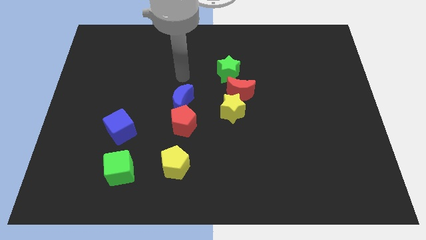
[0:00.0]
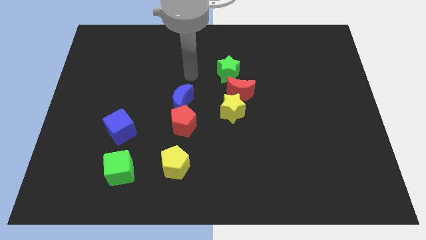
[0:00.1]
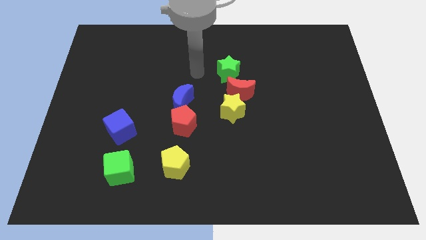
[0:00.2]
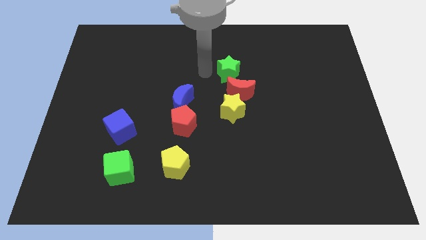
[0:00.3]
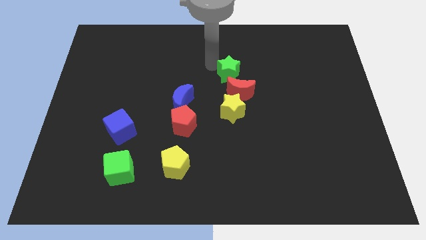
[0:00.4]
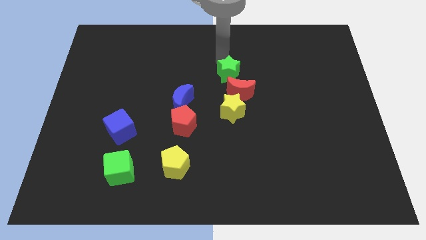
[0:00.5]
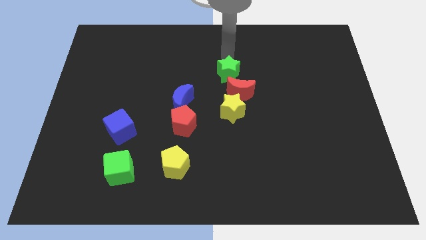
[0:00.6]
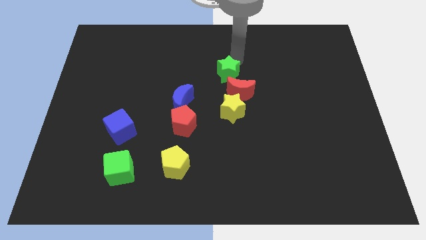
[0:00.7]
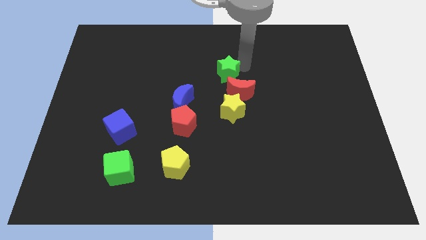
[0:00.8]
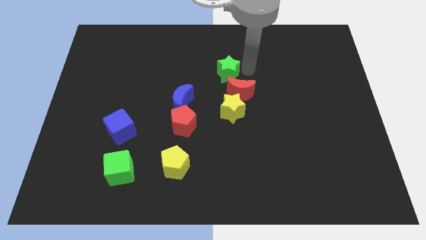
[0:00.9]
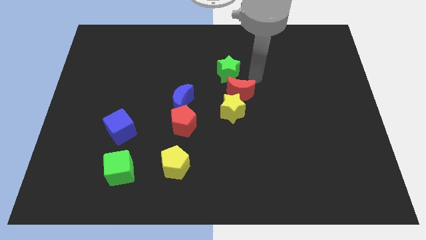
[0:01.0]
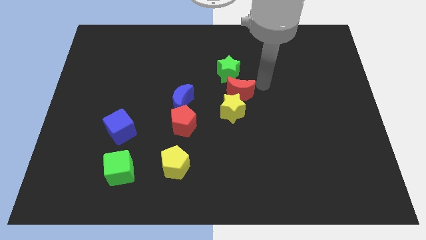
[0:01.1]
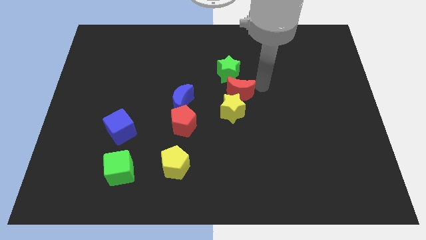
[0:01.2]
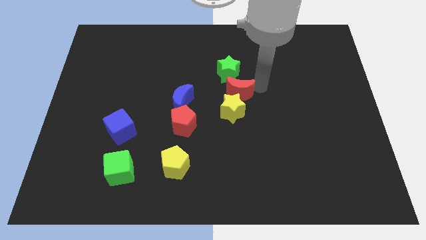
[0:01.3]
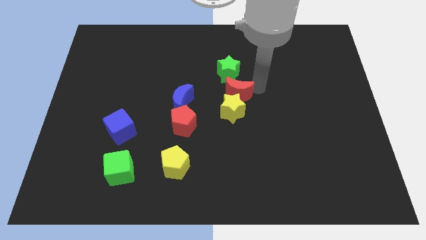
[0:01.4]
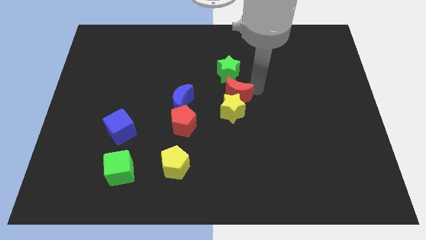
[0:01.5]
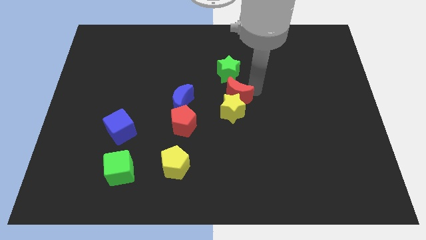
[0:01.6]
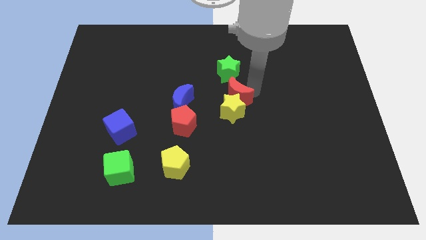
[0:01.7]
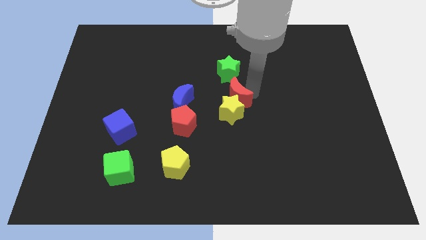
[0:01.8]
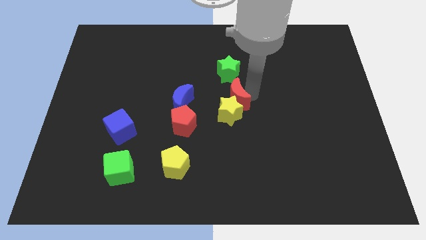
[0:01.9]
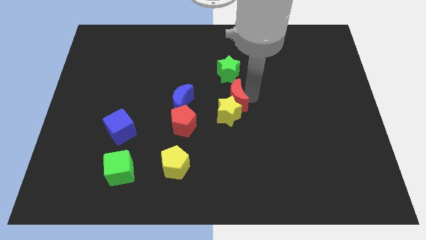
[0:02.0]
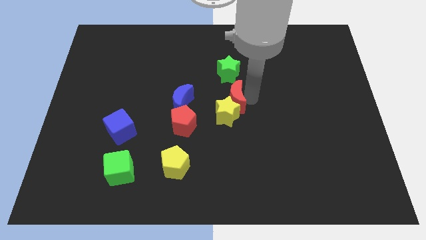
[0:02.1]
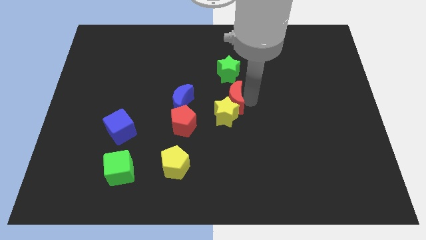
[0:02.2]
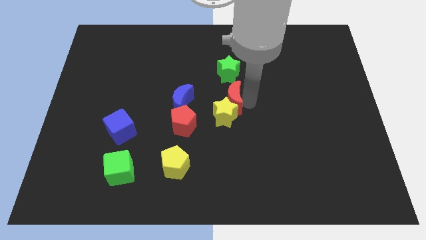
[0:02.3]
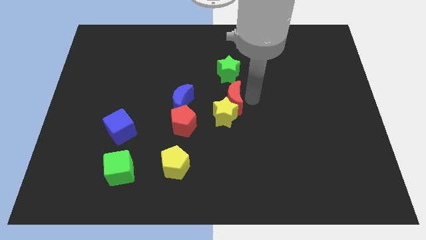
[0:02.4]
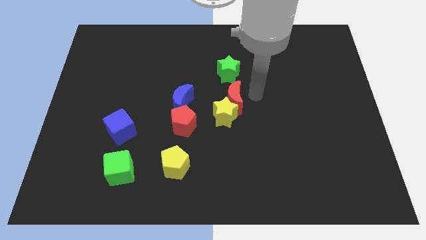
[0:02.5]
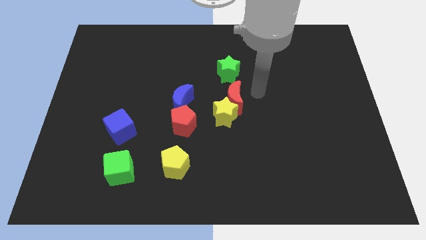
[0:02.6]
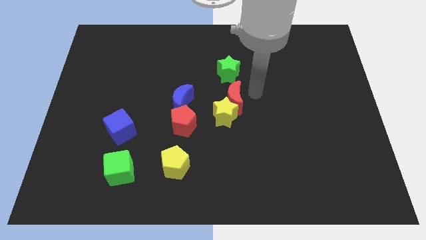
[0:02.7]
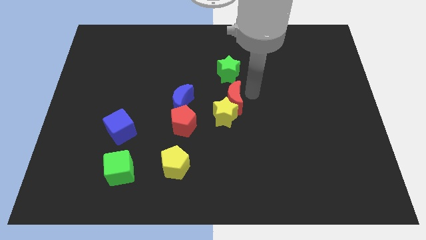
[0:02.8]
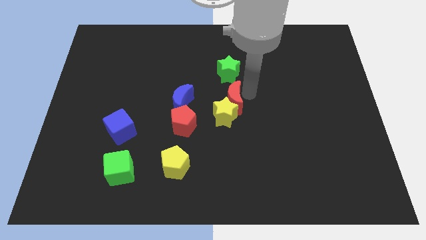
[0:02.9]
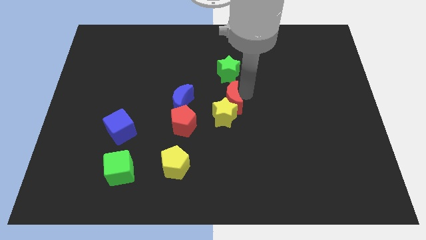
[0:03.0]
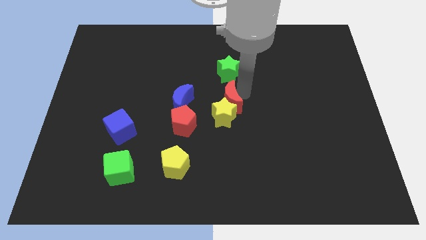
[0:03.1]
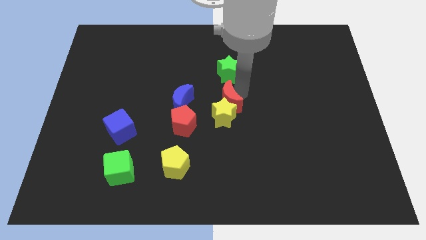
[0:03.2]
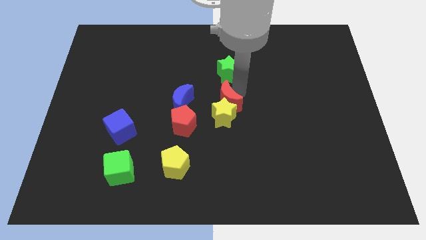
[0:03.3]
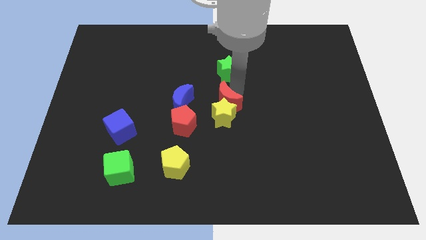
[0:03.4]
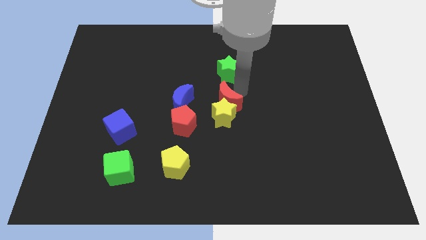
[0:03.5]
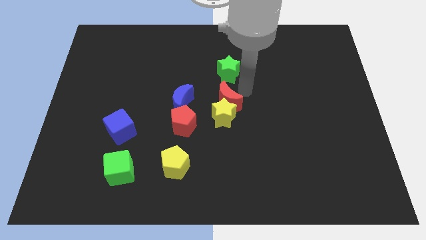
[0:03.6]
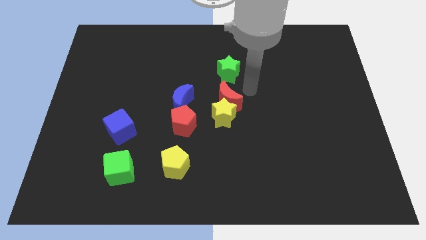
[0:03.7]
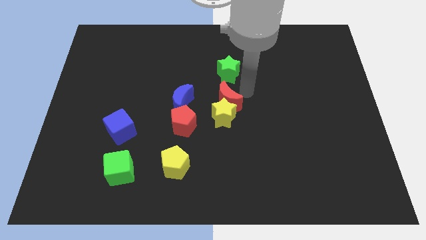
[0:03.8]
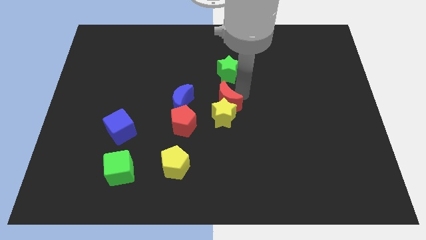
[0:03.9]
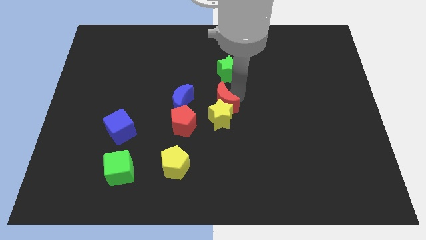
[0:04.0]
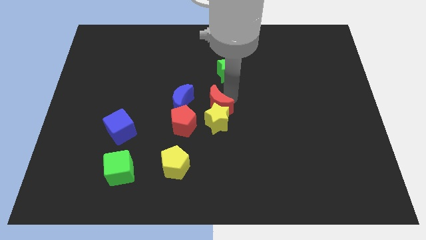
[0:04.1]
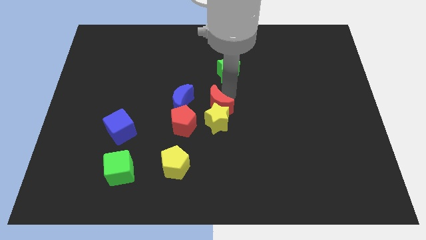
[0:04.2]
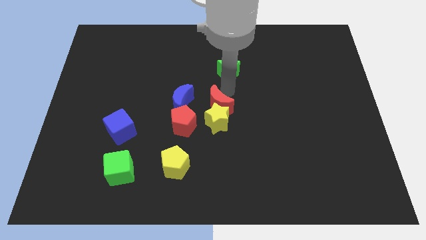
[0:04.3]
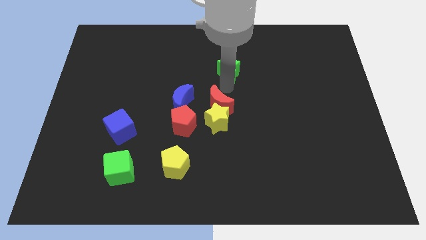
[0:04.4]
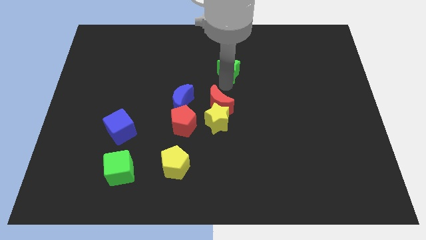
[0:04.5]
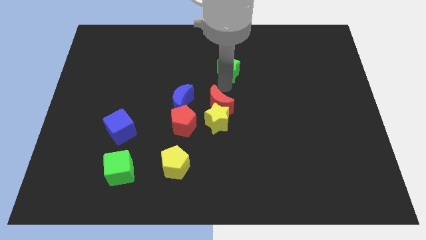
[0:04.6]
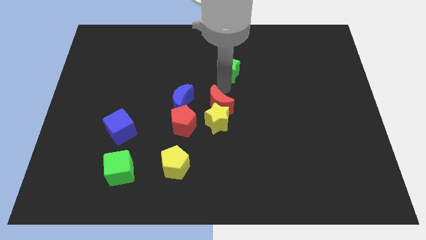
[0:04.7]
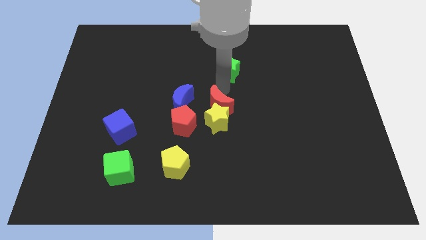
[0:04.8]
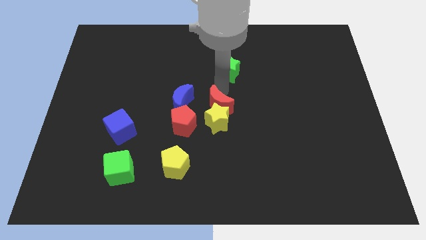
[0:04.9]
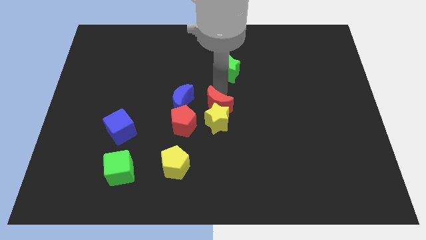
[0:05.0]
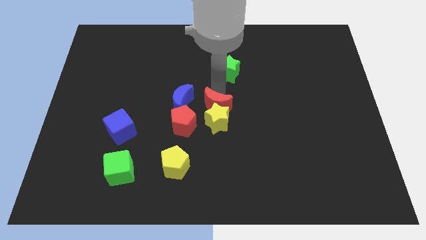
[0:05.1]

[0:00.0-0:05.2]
push the red moon a bit down and to the left

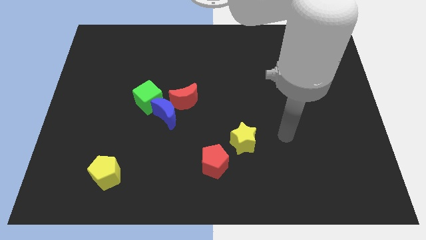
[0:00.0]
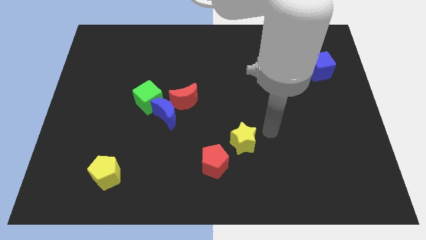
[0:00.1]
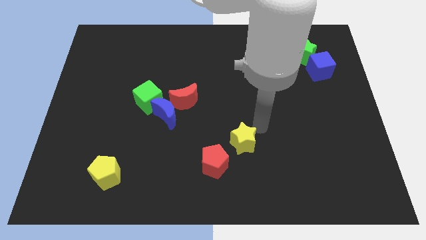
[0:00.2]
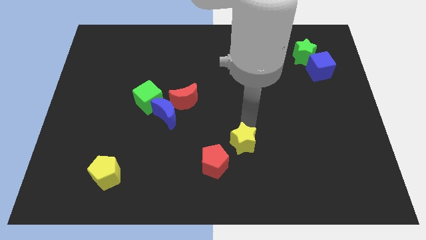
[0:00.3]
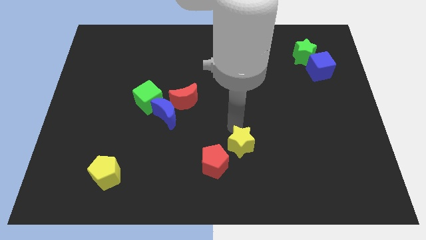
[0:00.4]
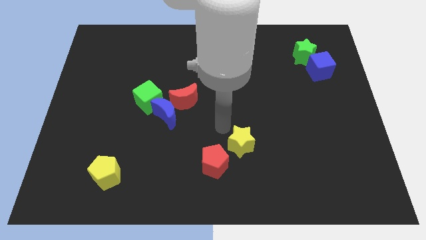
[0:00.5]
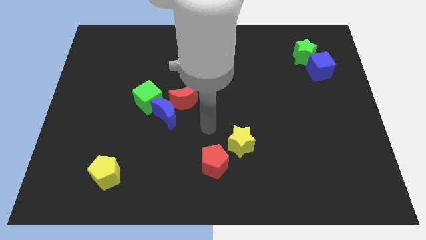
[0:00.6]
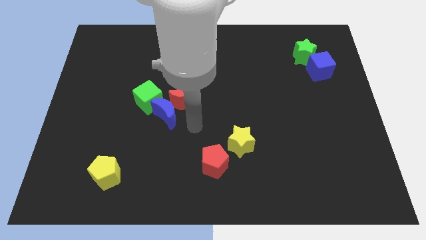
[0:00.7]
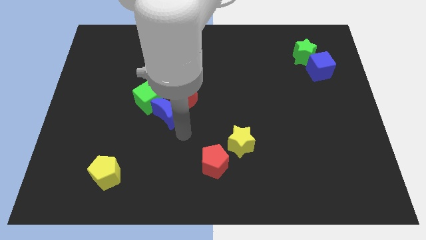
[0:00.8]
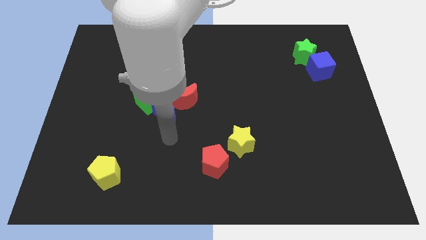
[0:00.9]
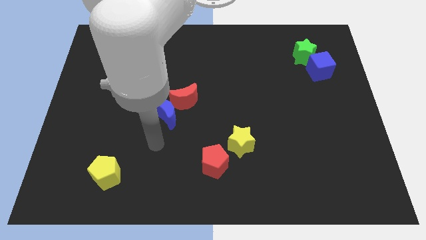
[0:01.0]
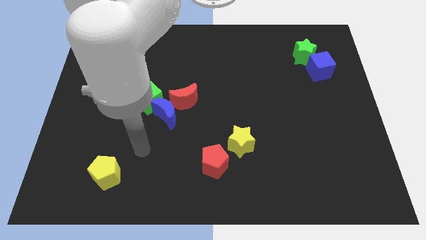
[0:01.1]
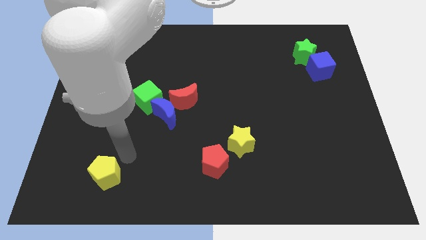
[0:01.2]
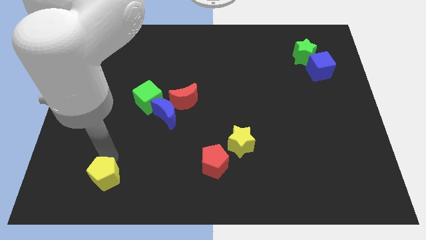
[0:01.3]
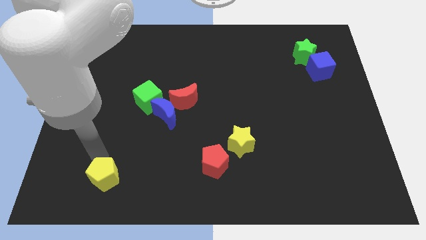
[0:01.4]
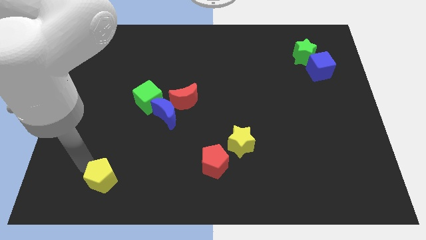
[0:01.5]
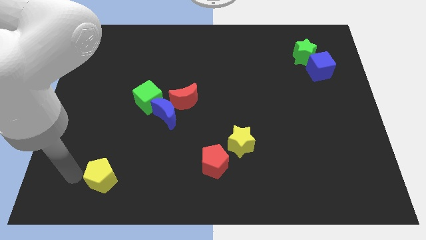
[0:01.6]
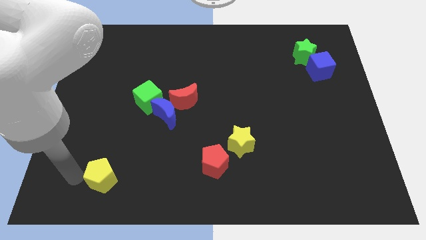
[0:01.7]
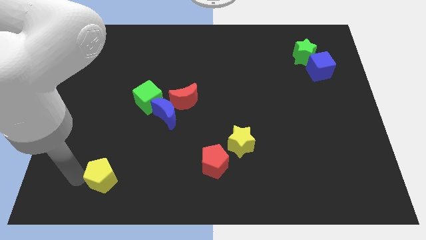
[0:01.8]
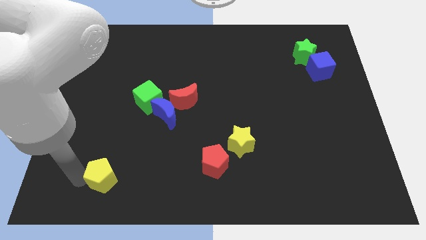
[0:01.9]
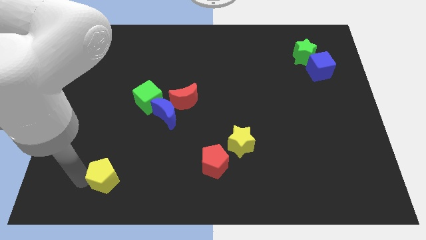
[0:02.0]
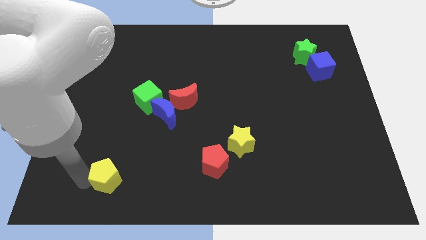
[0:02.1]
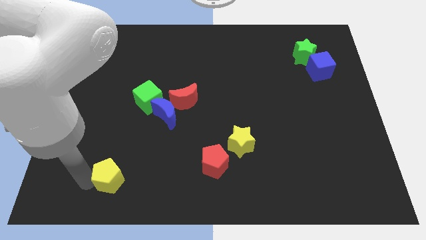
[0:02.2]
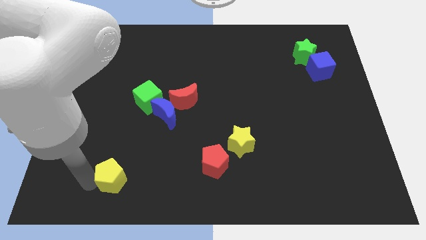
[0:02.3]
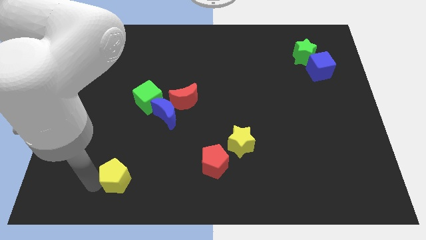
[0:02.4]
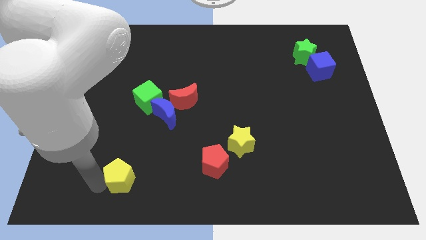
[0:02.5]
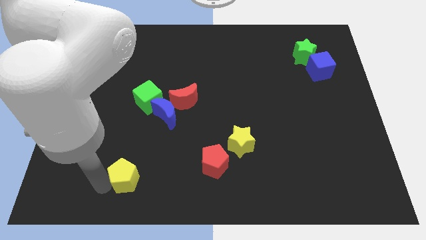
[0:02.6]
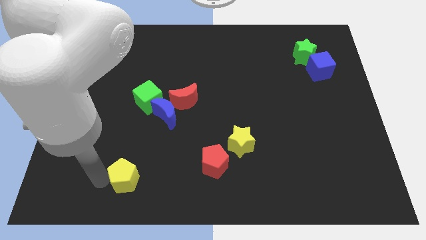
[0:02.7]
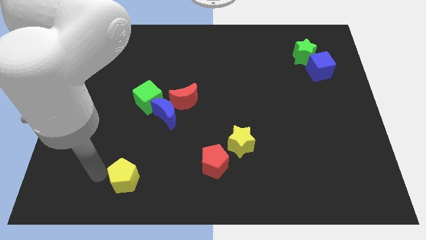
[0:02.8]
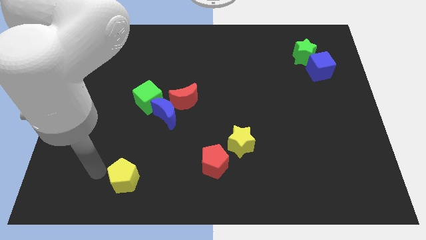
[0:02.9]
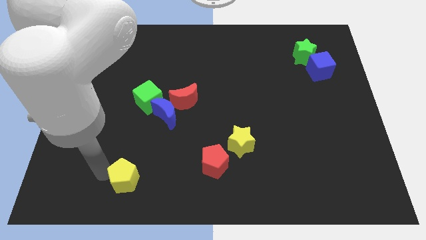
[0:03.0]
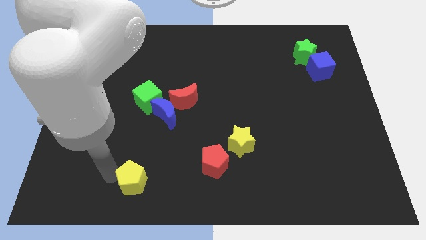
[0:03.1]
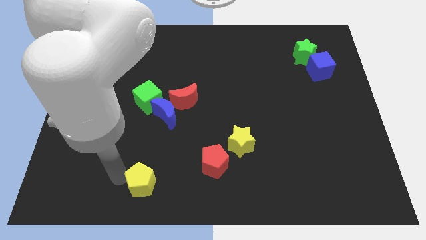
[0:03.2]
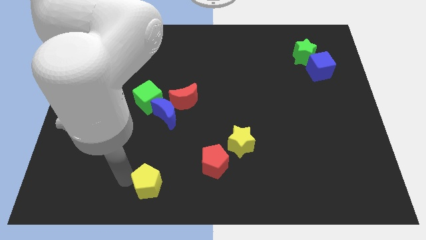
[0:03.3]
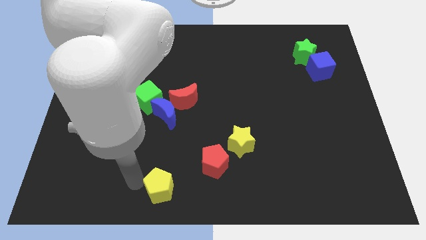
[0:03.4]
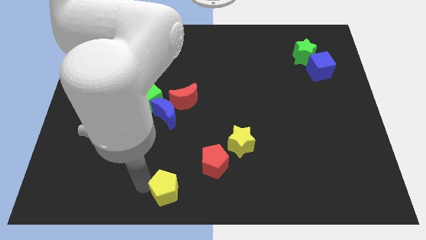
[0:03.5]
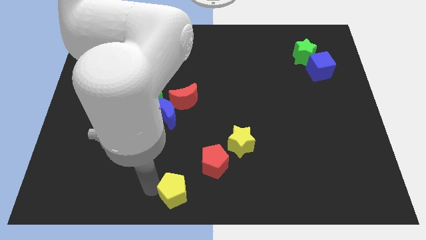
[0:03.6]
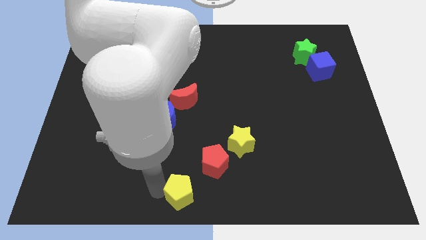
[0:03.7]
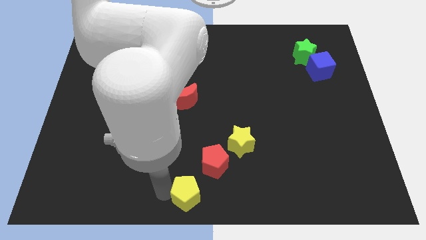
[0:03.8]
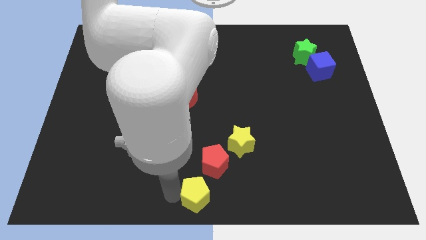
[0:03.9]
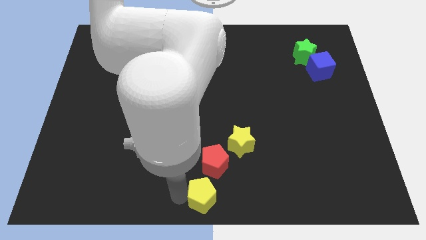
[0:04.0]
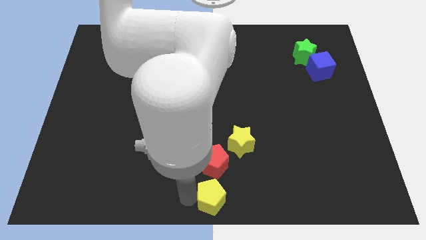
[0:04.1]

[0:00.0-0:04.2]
slide the yellow pentagon right
